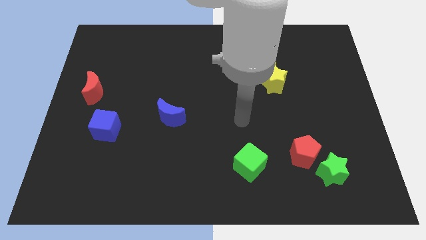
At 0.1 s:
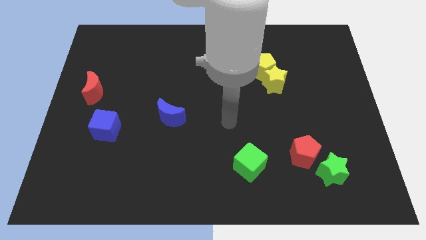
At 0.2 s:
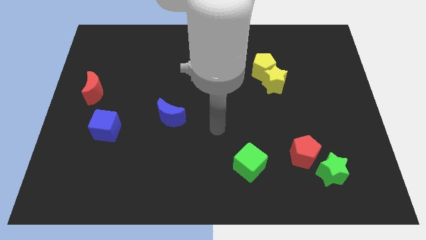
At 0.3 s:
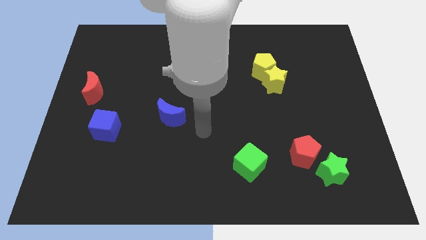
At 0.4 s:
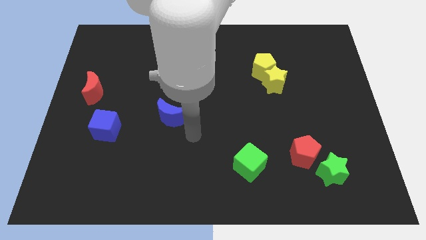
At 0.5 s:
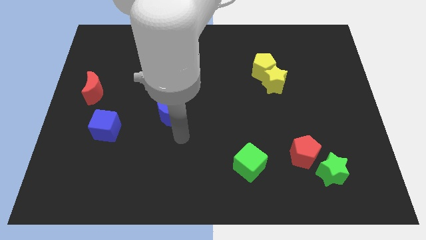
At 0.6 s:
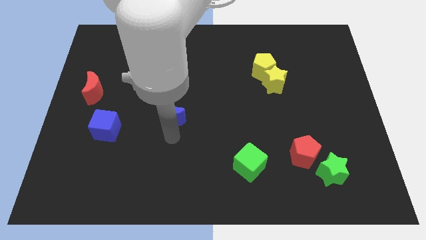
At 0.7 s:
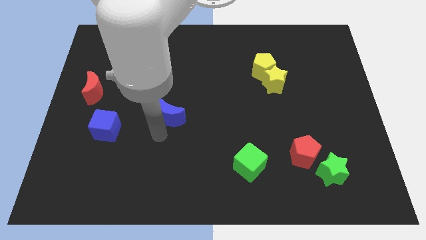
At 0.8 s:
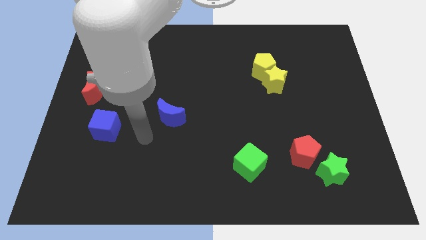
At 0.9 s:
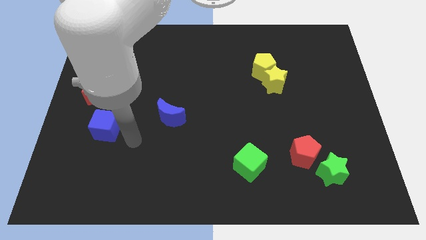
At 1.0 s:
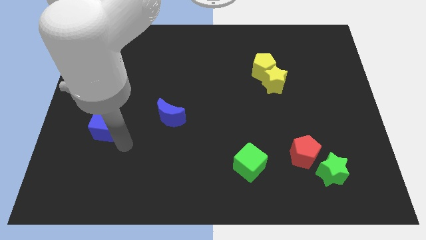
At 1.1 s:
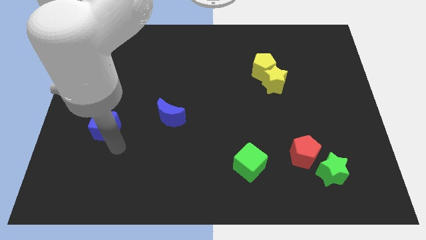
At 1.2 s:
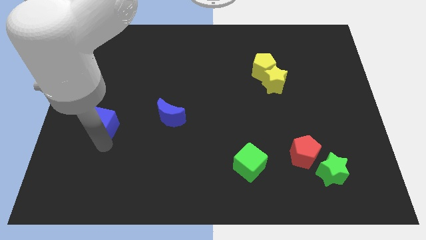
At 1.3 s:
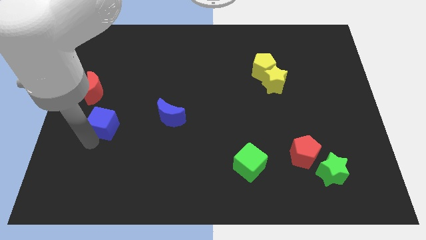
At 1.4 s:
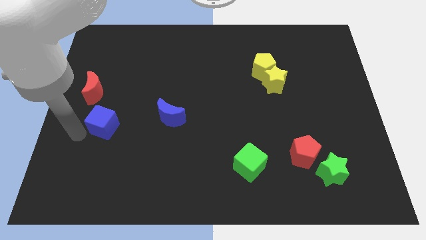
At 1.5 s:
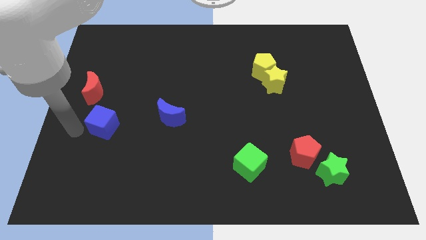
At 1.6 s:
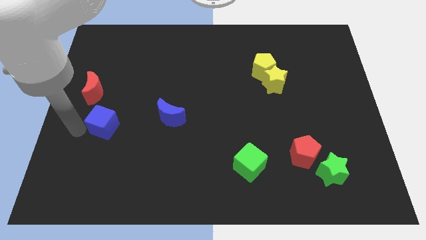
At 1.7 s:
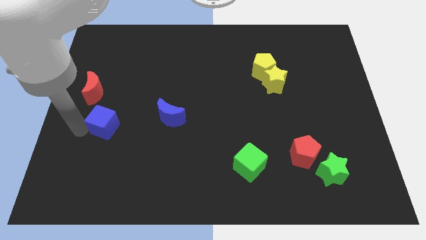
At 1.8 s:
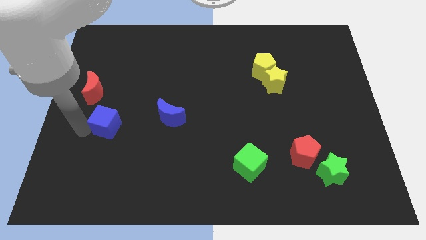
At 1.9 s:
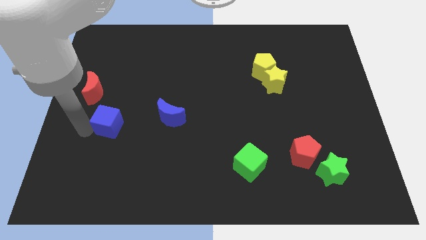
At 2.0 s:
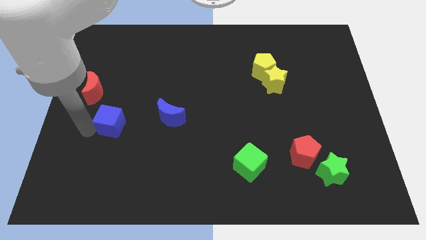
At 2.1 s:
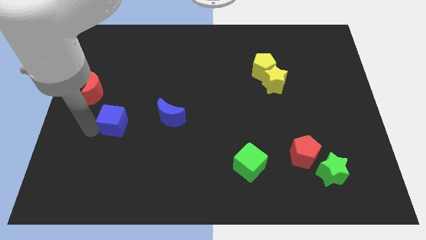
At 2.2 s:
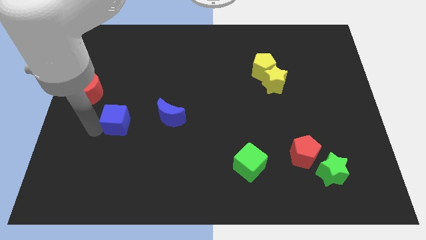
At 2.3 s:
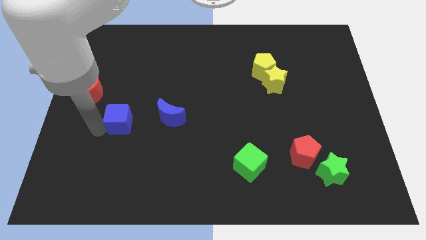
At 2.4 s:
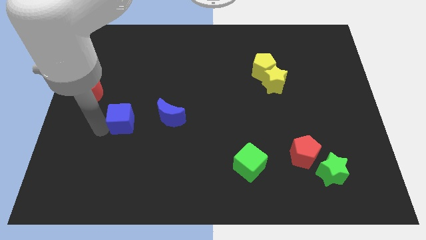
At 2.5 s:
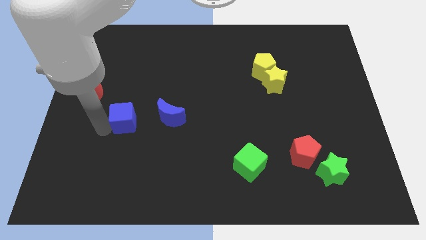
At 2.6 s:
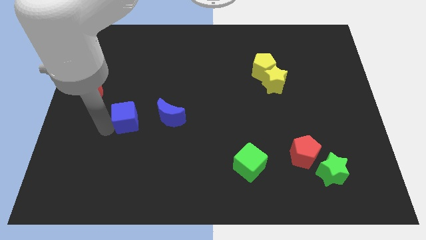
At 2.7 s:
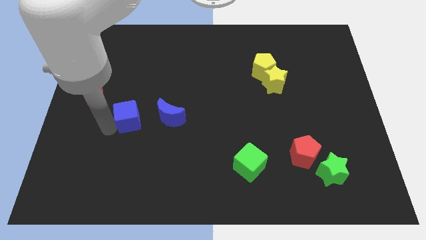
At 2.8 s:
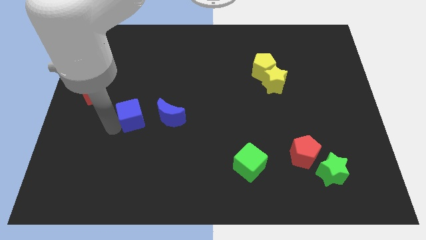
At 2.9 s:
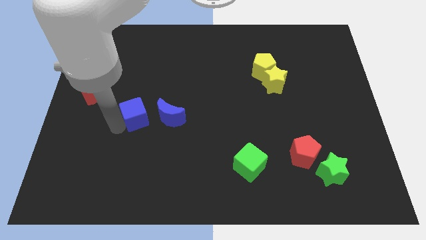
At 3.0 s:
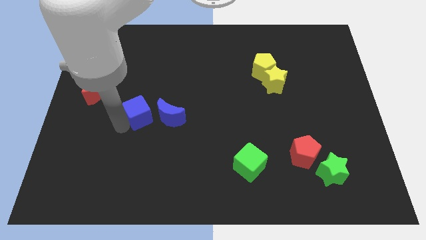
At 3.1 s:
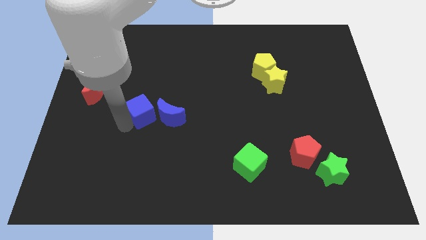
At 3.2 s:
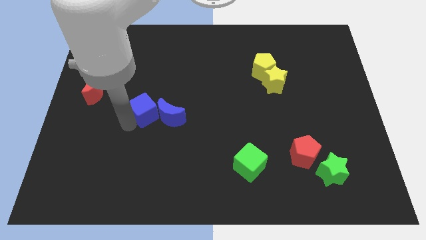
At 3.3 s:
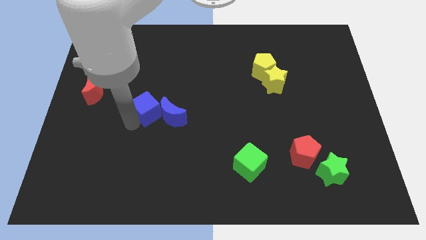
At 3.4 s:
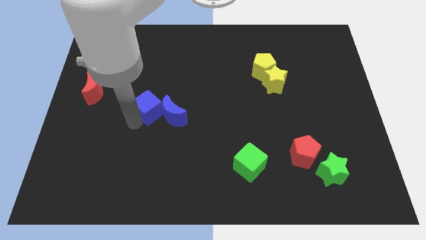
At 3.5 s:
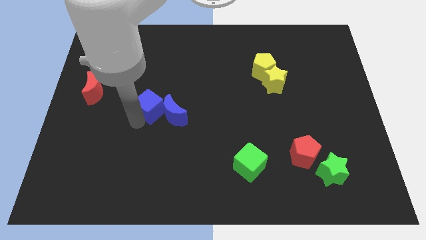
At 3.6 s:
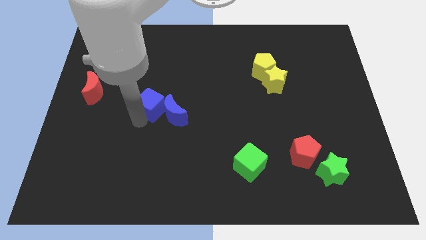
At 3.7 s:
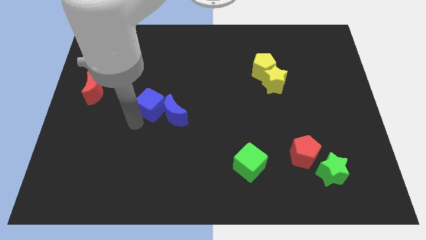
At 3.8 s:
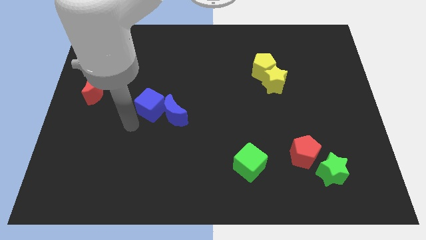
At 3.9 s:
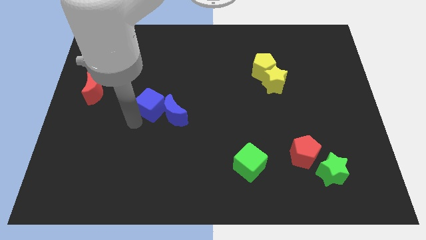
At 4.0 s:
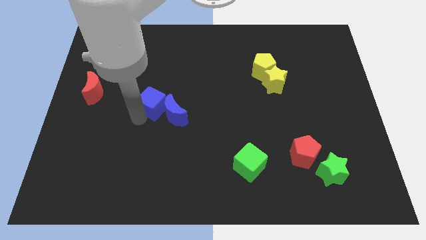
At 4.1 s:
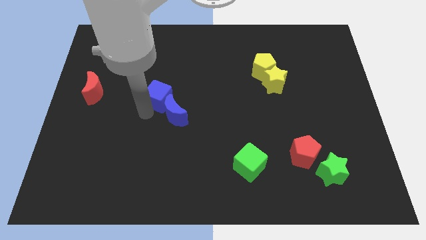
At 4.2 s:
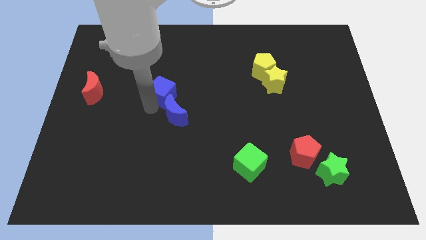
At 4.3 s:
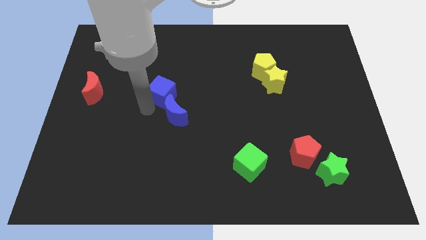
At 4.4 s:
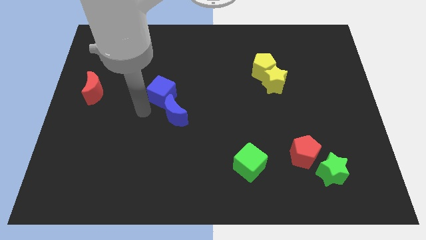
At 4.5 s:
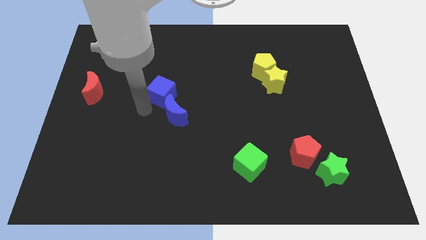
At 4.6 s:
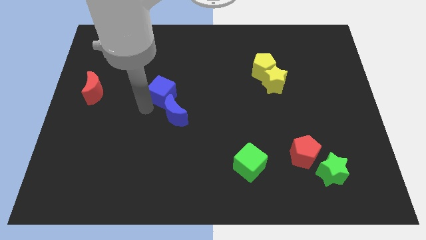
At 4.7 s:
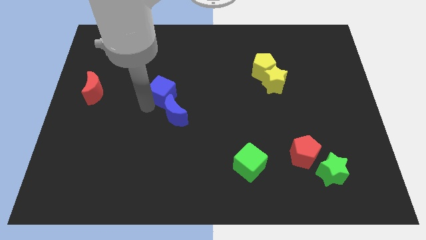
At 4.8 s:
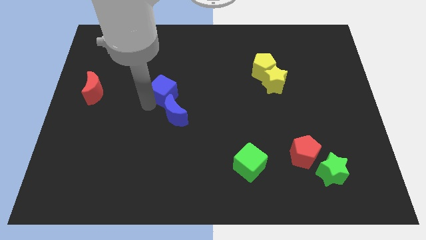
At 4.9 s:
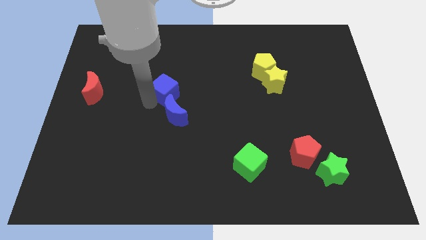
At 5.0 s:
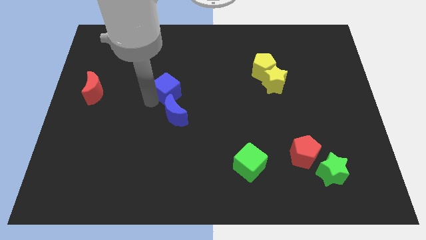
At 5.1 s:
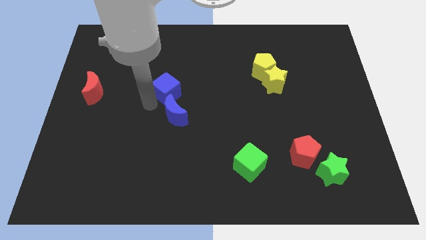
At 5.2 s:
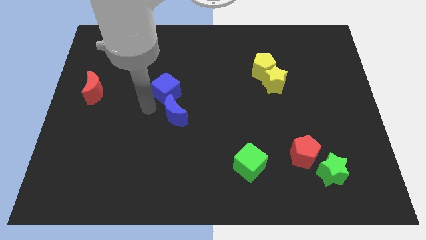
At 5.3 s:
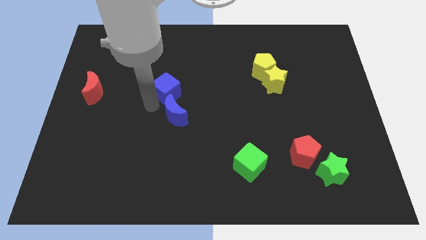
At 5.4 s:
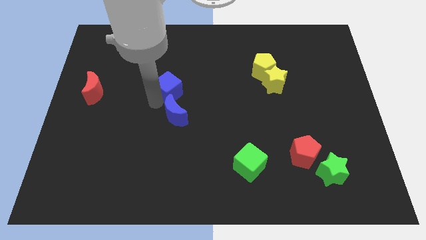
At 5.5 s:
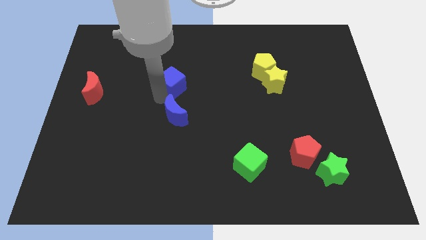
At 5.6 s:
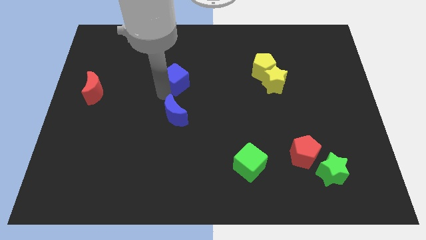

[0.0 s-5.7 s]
slide the blue cube upwards and right diagonally

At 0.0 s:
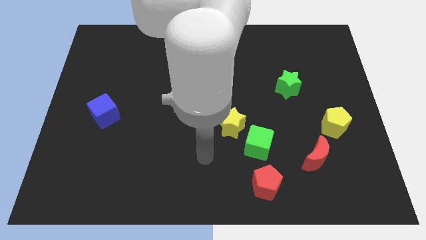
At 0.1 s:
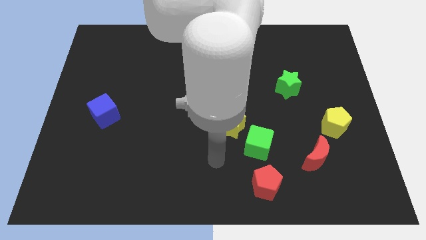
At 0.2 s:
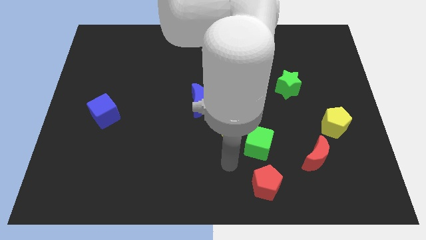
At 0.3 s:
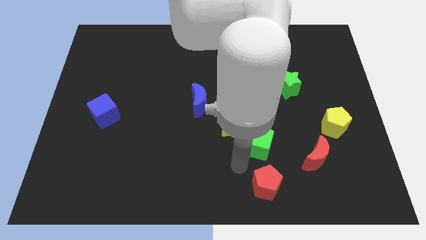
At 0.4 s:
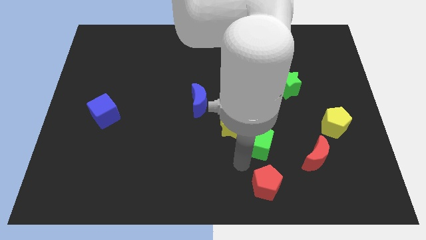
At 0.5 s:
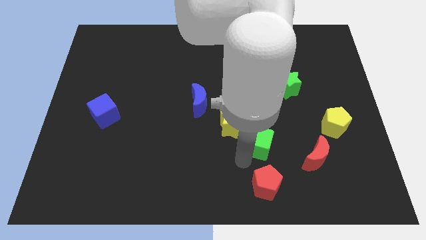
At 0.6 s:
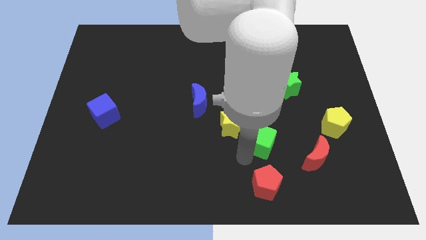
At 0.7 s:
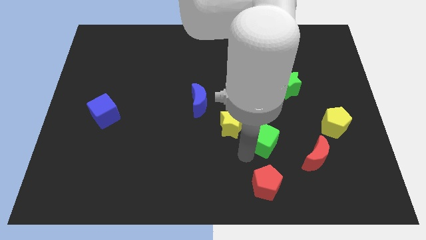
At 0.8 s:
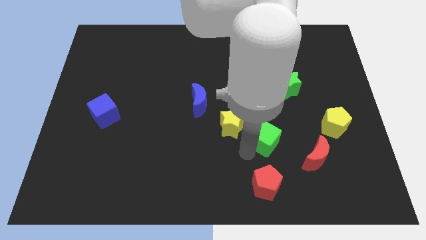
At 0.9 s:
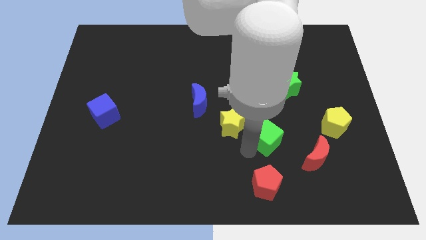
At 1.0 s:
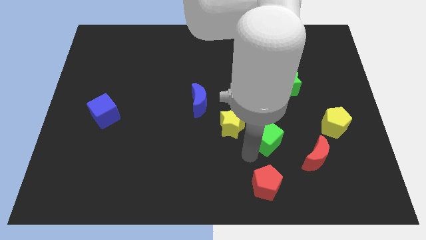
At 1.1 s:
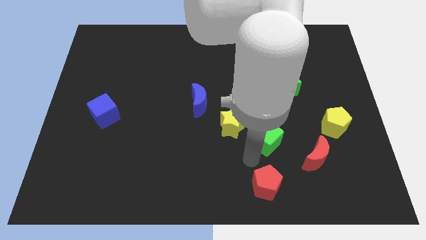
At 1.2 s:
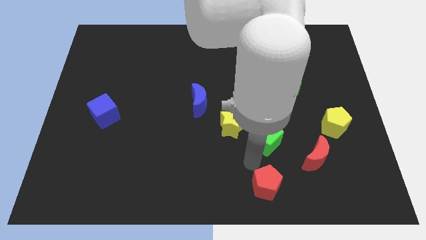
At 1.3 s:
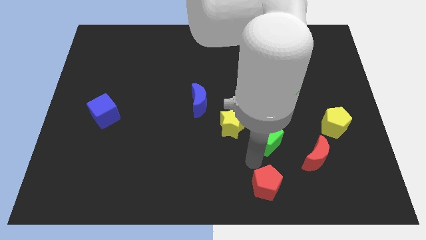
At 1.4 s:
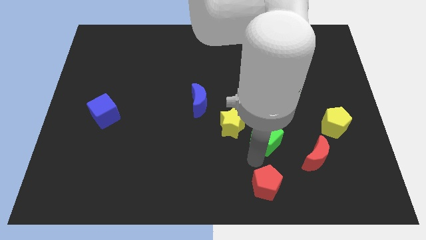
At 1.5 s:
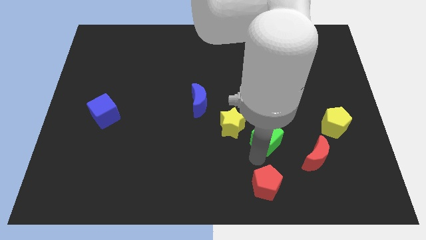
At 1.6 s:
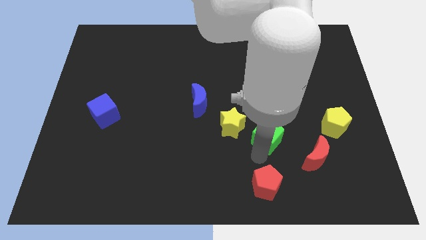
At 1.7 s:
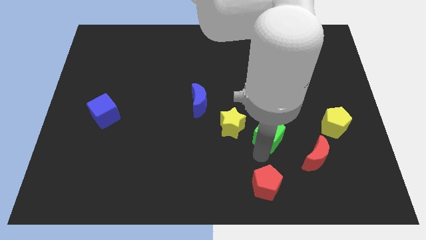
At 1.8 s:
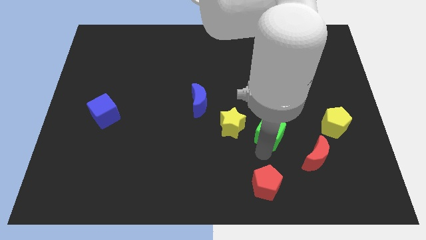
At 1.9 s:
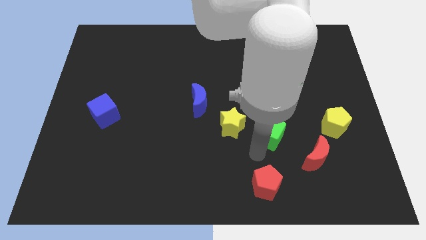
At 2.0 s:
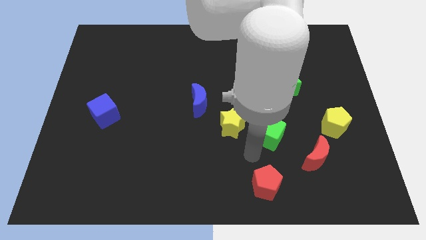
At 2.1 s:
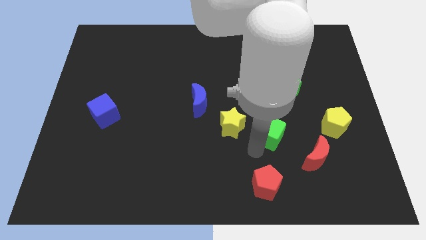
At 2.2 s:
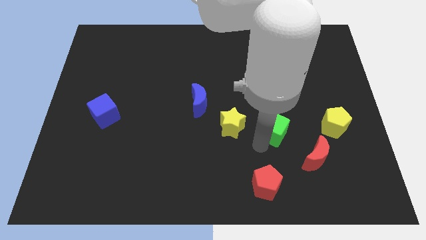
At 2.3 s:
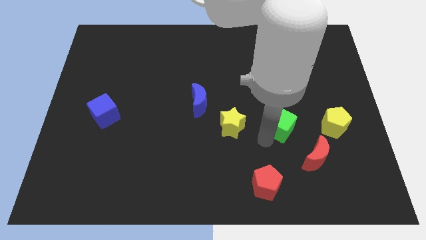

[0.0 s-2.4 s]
move the green cube somewhat up and right diagonally
